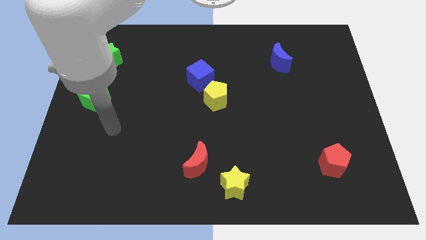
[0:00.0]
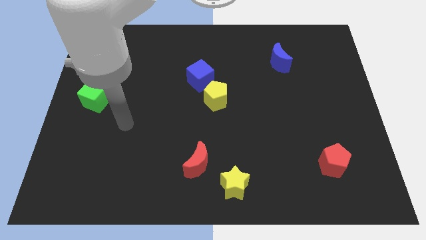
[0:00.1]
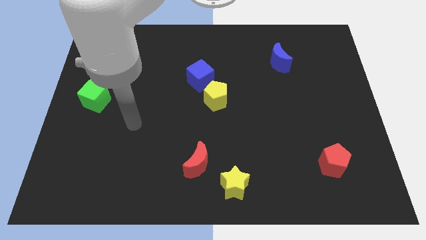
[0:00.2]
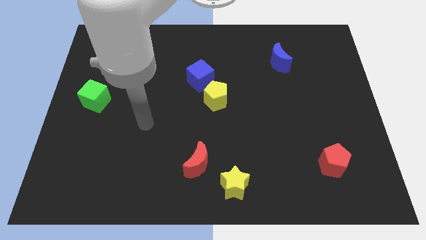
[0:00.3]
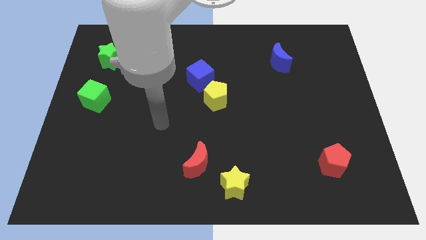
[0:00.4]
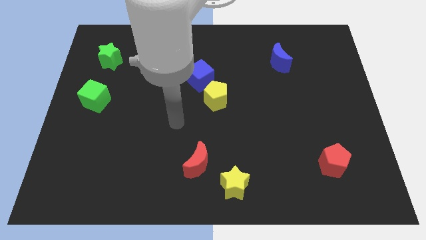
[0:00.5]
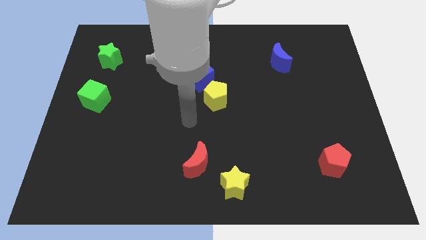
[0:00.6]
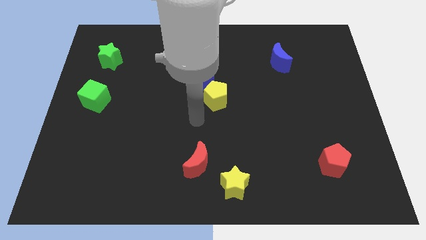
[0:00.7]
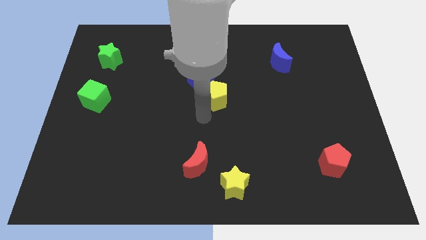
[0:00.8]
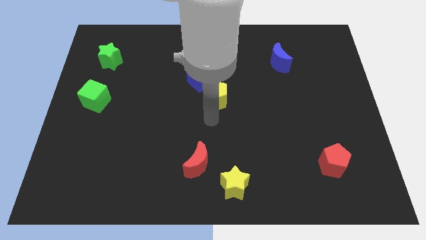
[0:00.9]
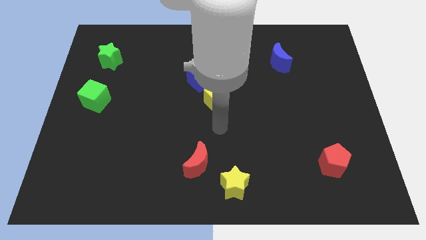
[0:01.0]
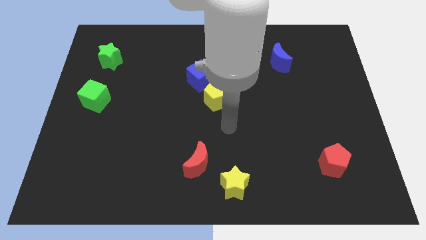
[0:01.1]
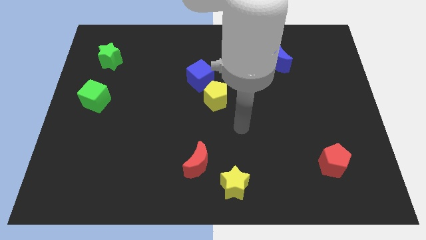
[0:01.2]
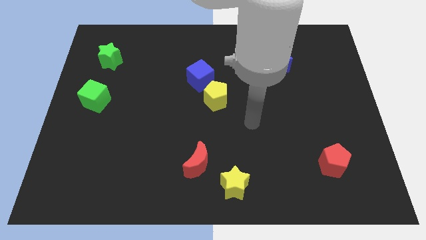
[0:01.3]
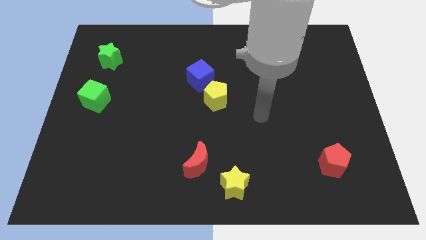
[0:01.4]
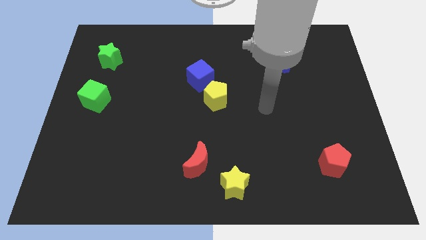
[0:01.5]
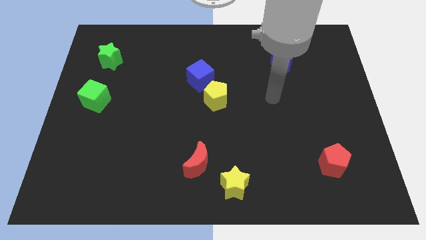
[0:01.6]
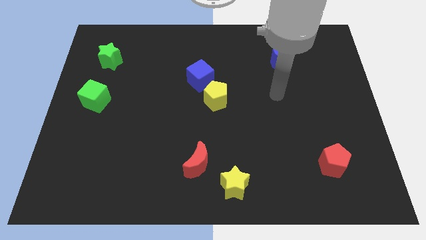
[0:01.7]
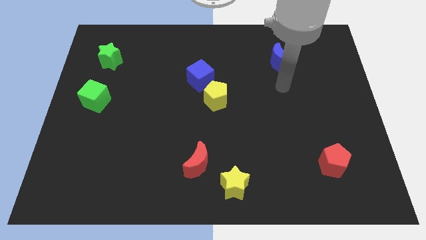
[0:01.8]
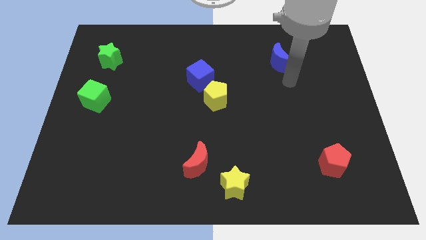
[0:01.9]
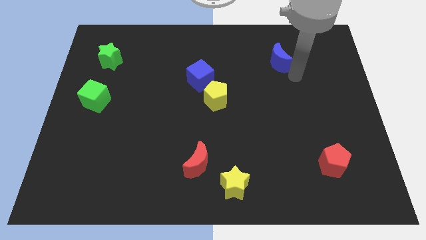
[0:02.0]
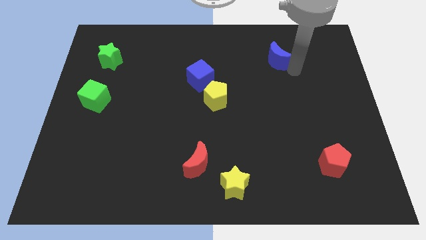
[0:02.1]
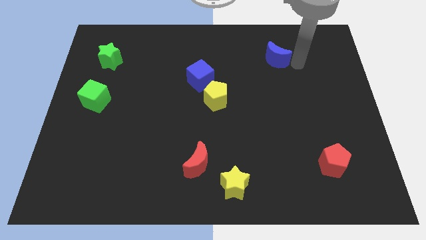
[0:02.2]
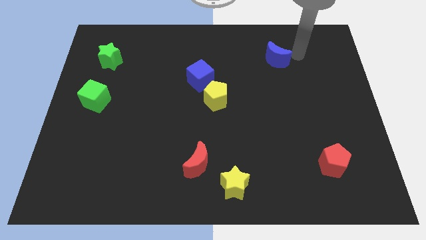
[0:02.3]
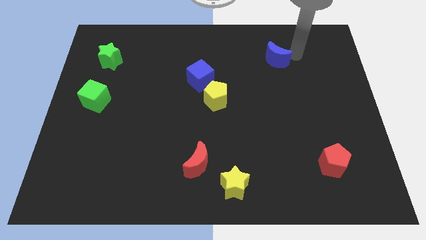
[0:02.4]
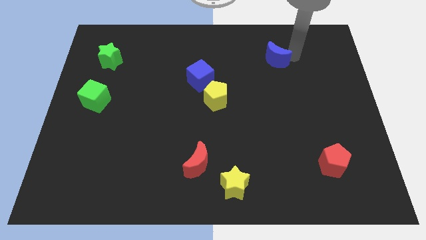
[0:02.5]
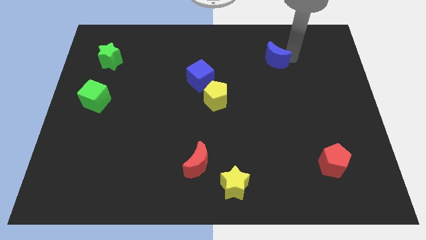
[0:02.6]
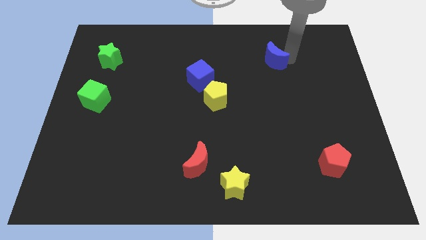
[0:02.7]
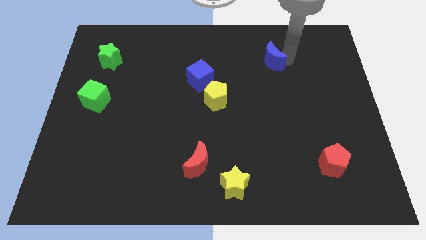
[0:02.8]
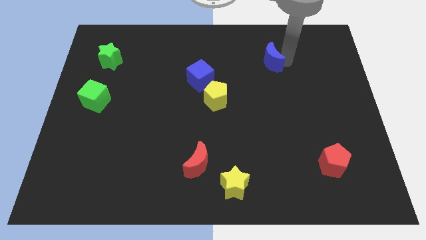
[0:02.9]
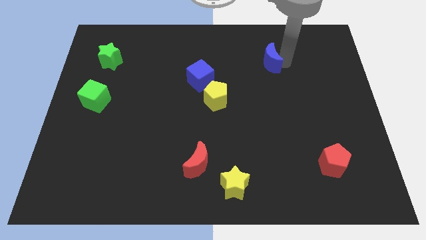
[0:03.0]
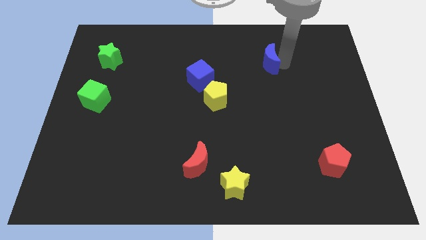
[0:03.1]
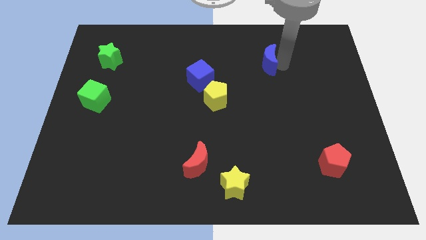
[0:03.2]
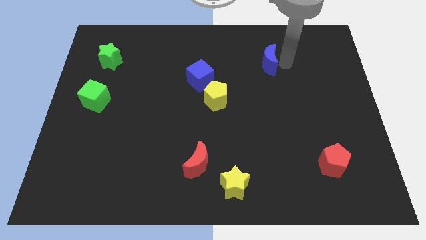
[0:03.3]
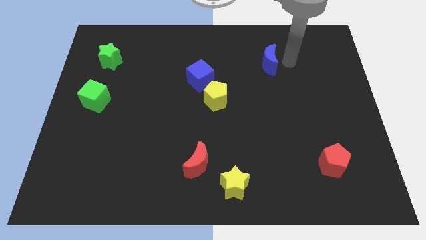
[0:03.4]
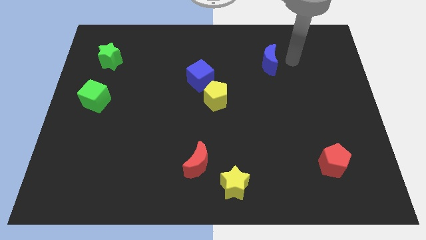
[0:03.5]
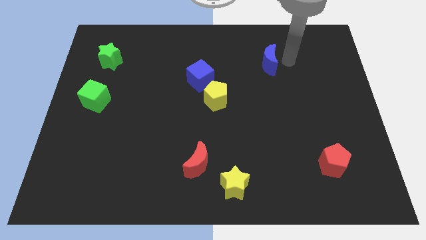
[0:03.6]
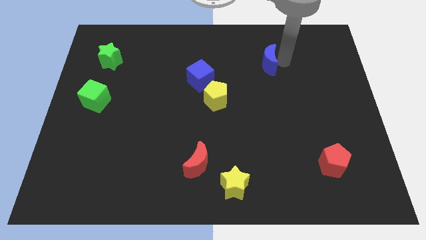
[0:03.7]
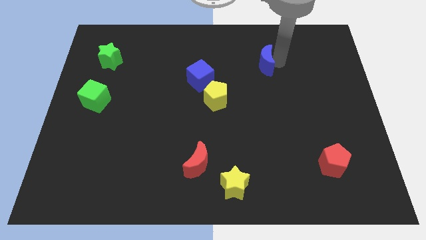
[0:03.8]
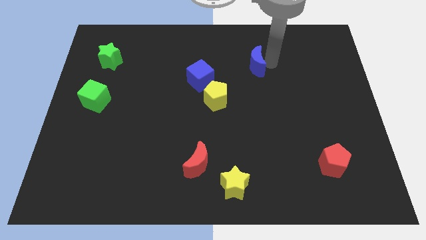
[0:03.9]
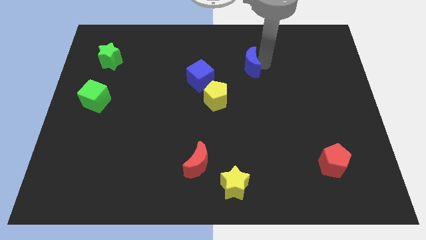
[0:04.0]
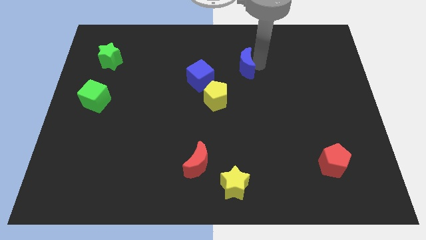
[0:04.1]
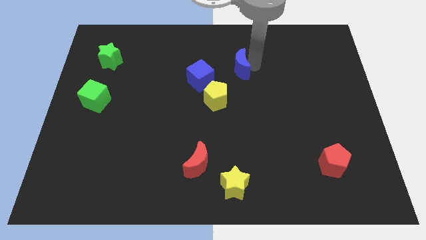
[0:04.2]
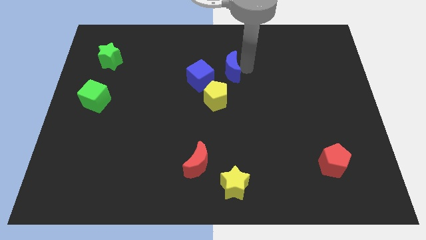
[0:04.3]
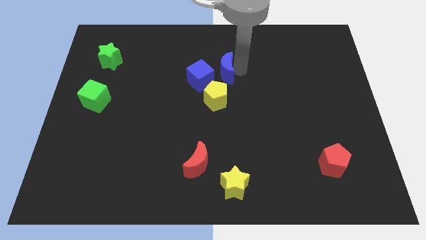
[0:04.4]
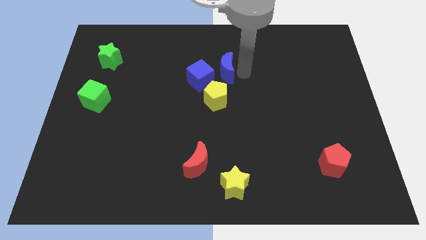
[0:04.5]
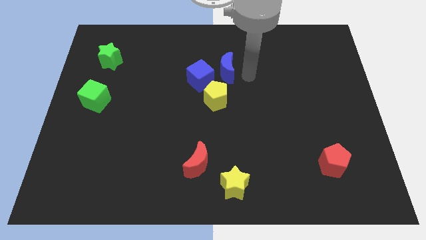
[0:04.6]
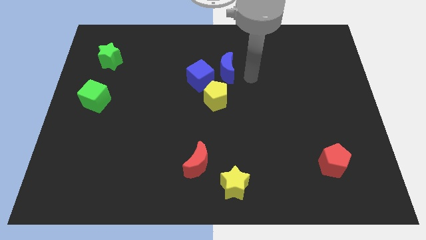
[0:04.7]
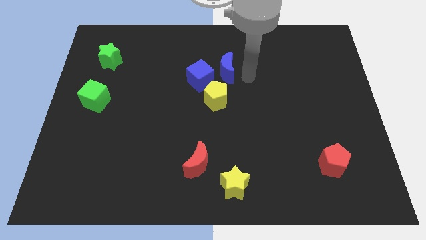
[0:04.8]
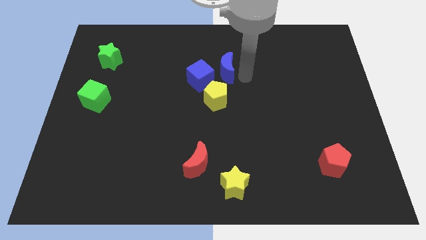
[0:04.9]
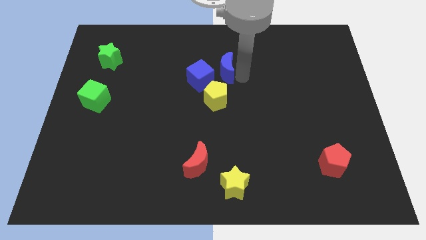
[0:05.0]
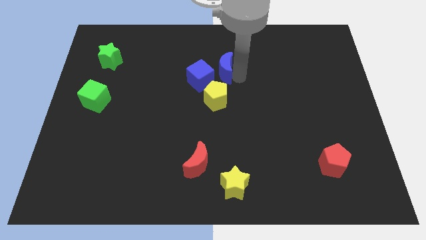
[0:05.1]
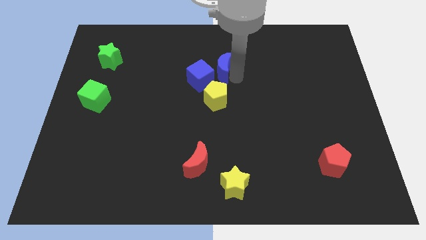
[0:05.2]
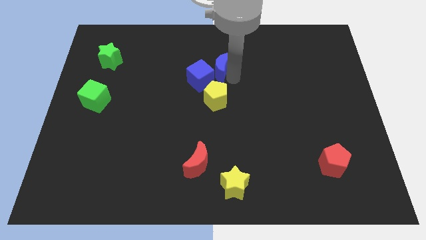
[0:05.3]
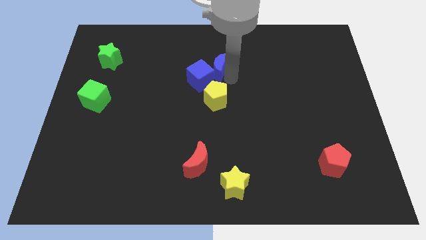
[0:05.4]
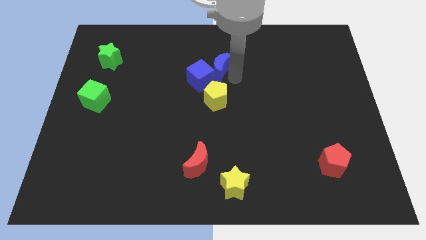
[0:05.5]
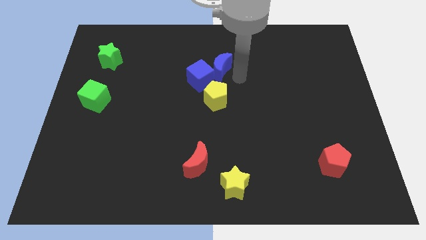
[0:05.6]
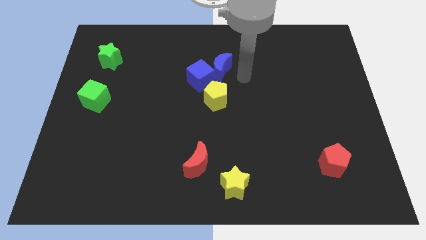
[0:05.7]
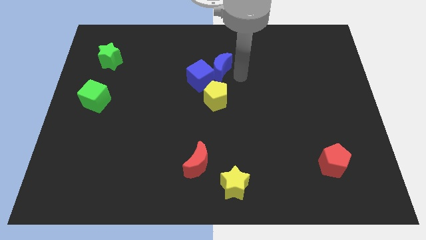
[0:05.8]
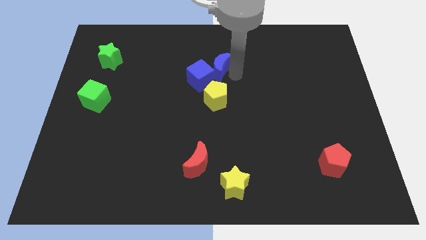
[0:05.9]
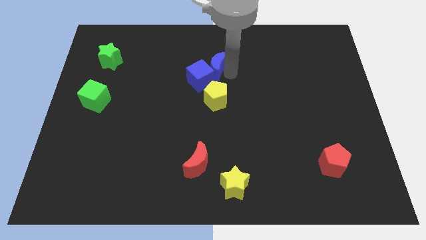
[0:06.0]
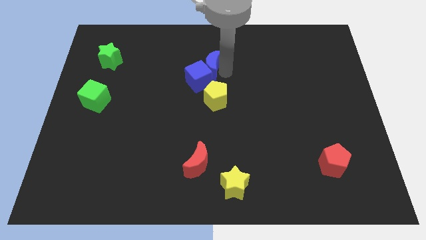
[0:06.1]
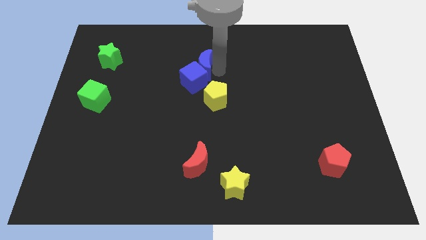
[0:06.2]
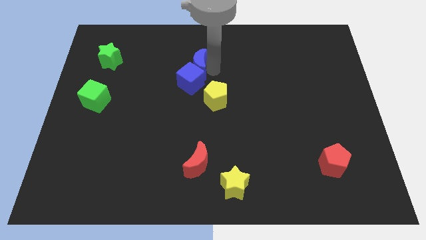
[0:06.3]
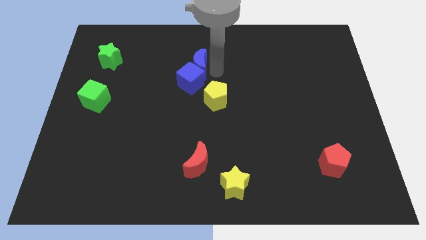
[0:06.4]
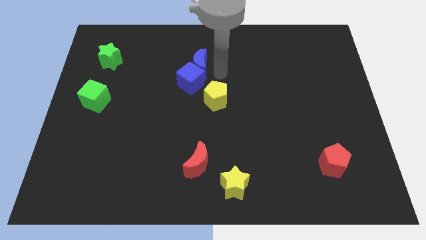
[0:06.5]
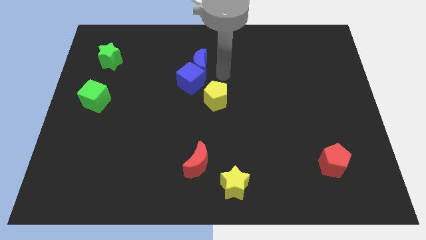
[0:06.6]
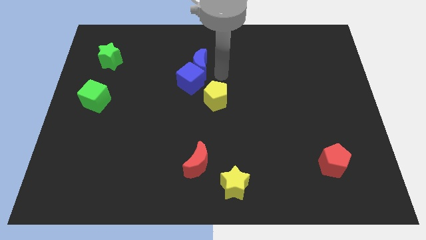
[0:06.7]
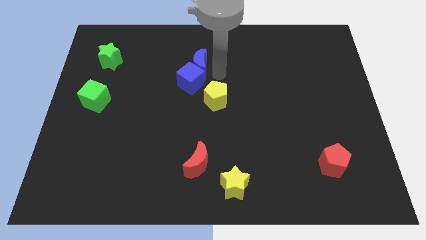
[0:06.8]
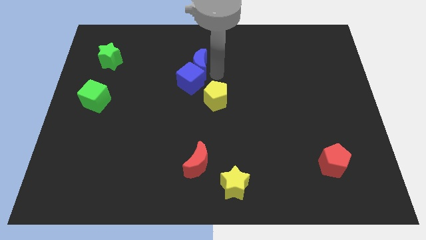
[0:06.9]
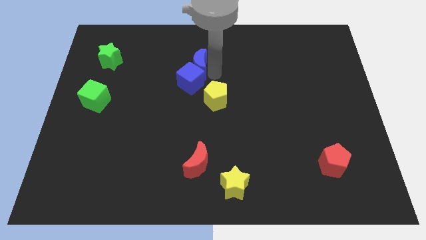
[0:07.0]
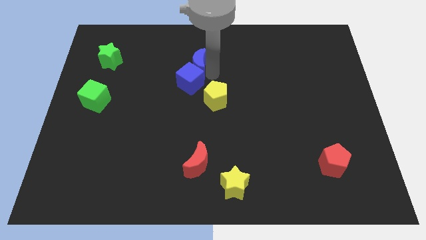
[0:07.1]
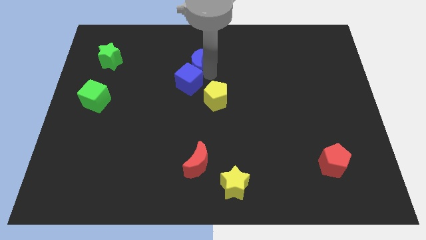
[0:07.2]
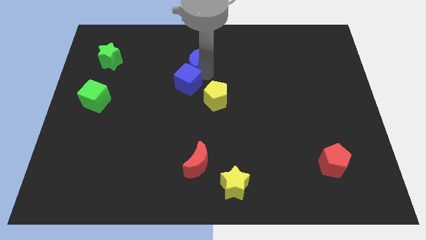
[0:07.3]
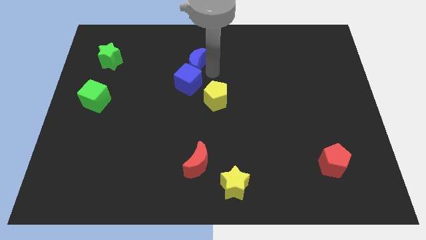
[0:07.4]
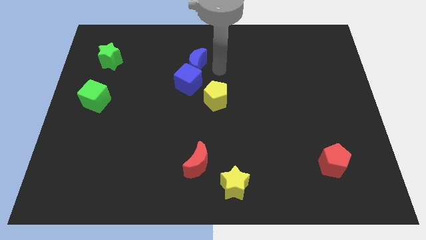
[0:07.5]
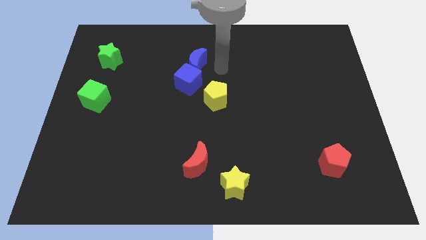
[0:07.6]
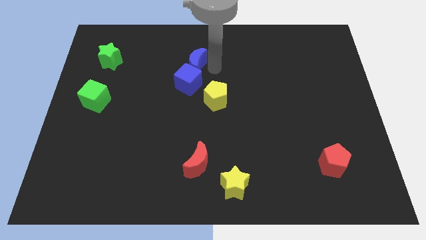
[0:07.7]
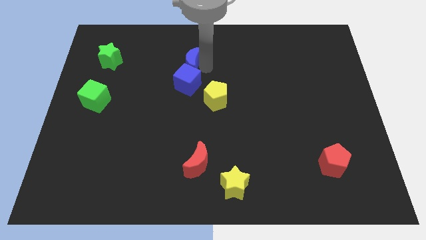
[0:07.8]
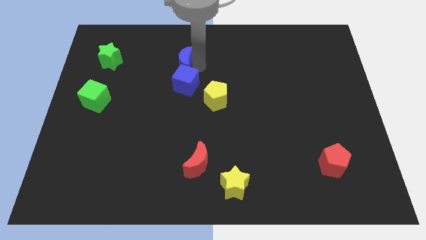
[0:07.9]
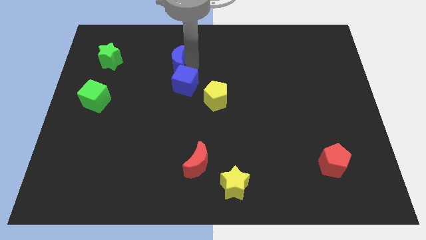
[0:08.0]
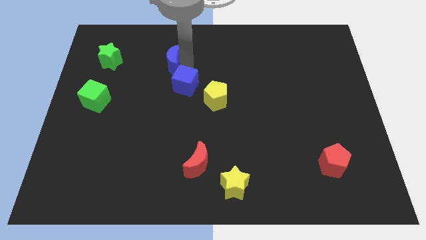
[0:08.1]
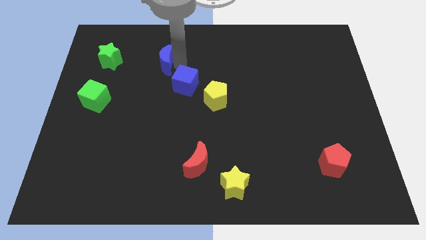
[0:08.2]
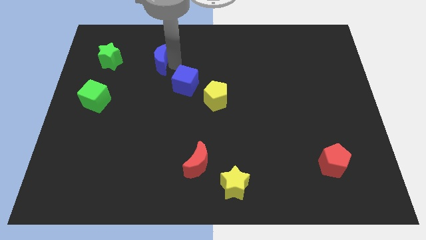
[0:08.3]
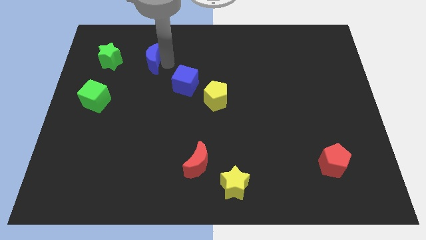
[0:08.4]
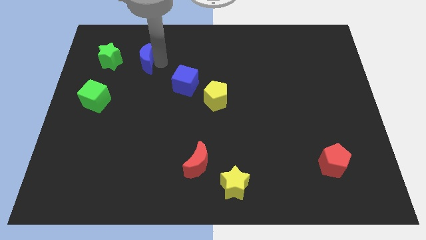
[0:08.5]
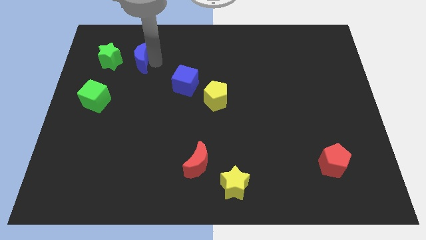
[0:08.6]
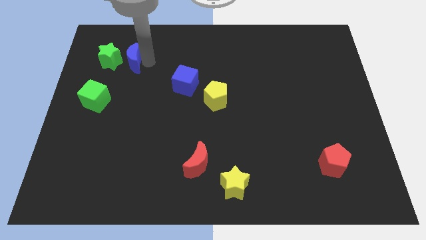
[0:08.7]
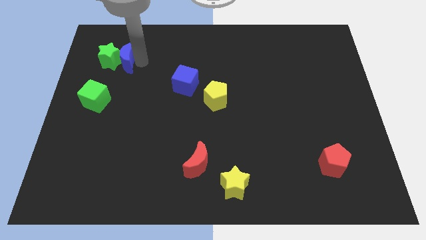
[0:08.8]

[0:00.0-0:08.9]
slide the blue moon next to the green star
